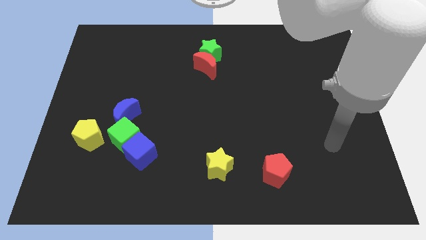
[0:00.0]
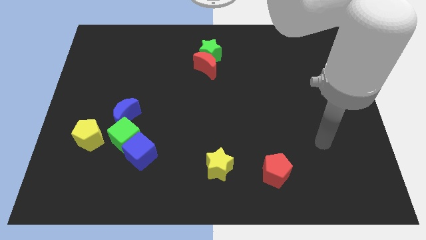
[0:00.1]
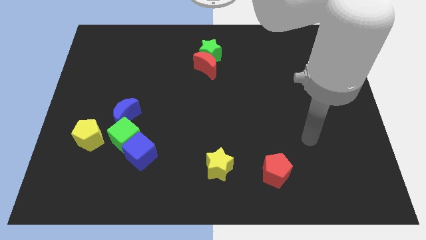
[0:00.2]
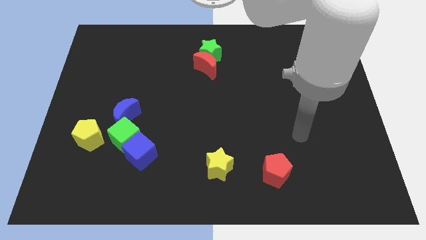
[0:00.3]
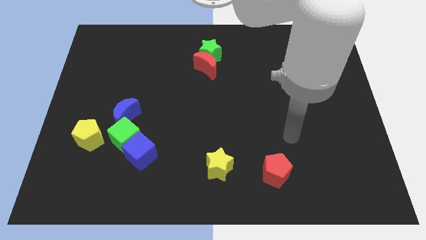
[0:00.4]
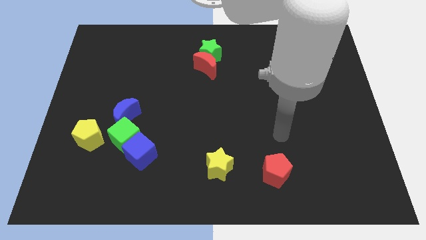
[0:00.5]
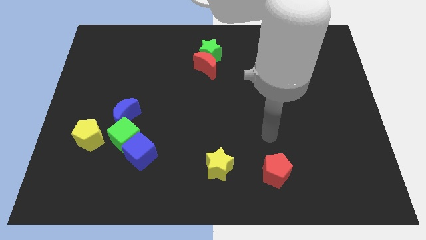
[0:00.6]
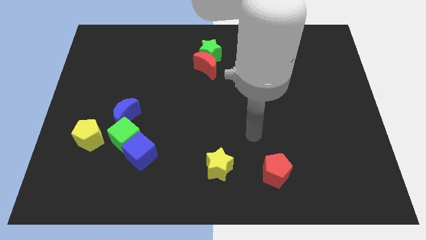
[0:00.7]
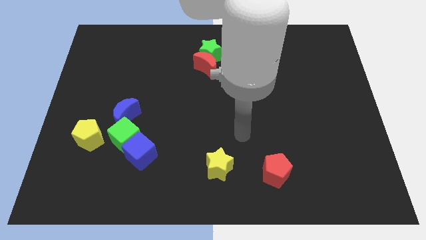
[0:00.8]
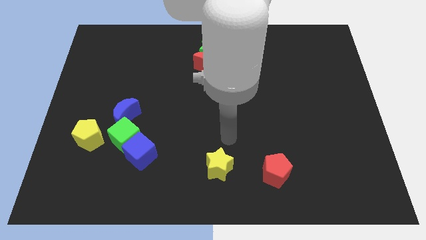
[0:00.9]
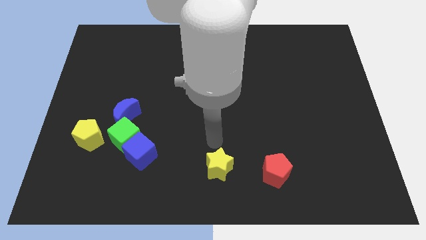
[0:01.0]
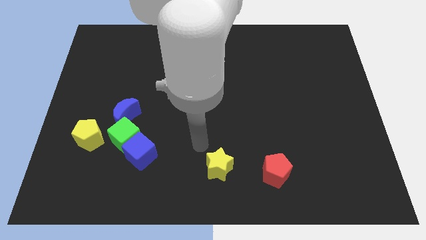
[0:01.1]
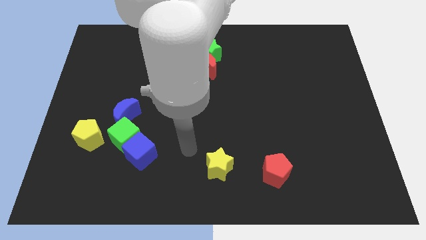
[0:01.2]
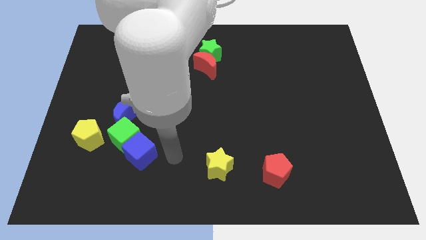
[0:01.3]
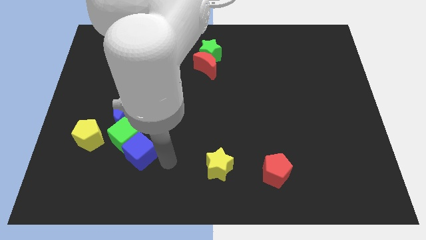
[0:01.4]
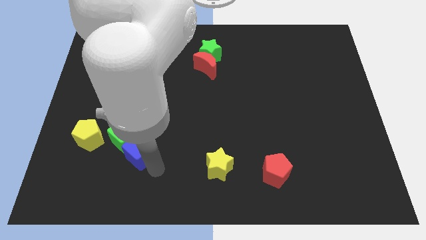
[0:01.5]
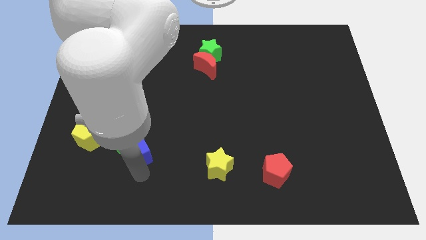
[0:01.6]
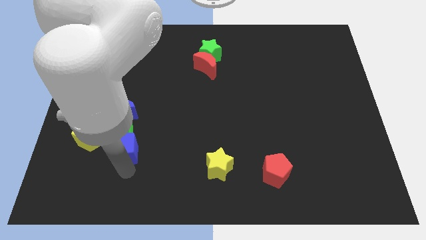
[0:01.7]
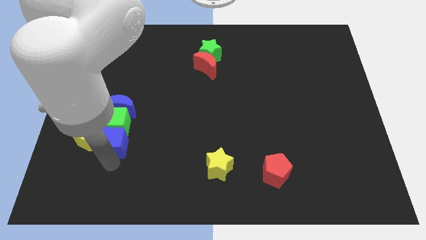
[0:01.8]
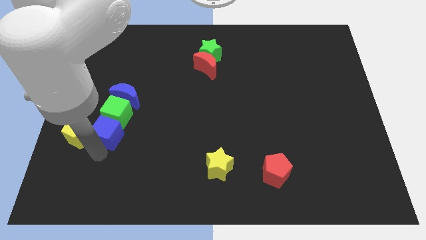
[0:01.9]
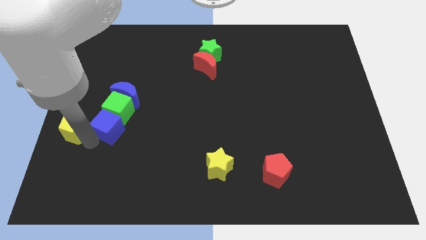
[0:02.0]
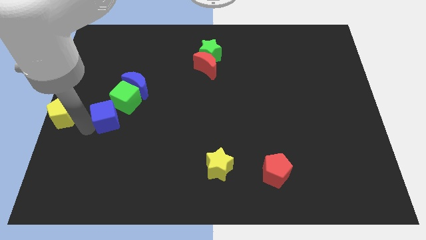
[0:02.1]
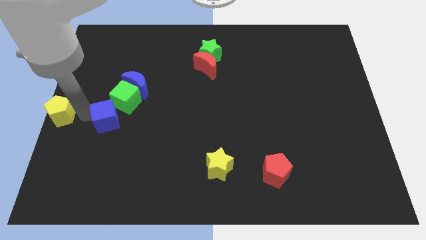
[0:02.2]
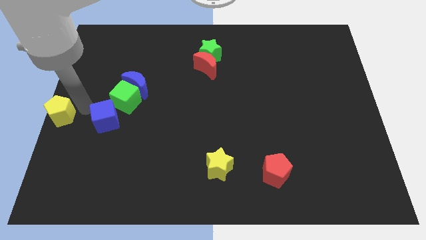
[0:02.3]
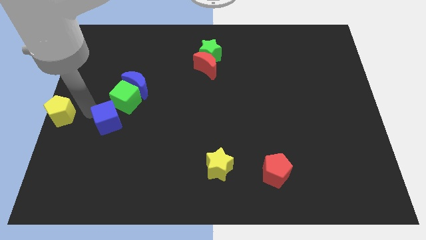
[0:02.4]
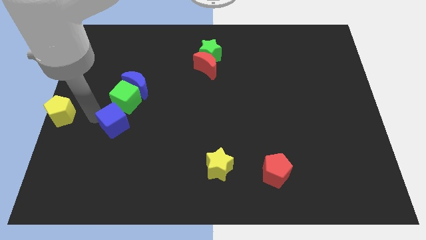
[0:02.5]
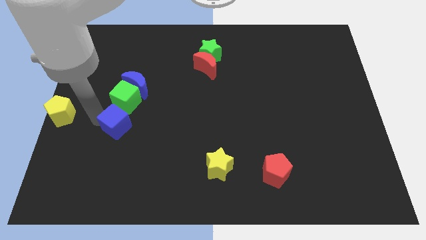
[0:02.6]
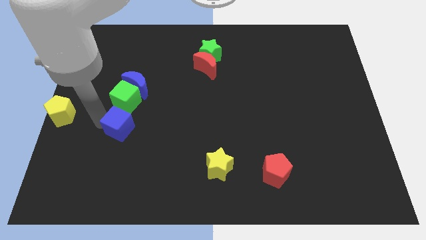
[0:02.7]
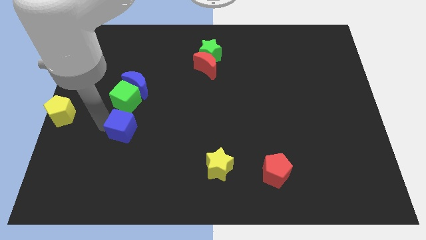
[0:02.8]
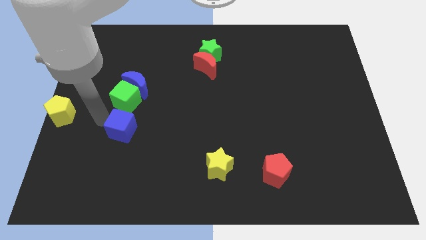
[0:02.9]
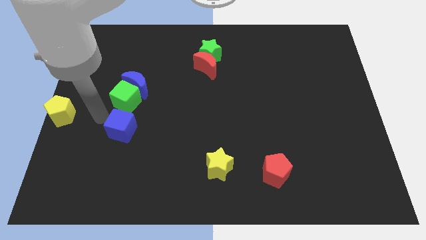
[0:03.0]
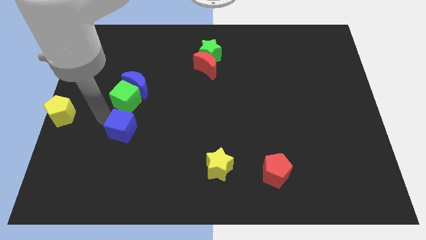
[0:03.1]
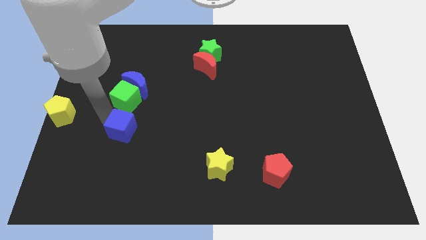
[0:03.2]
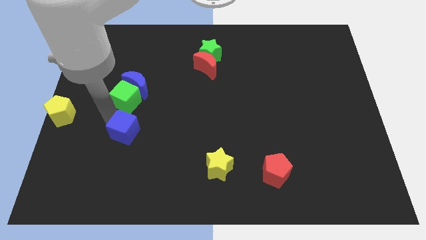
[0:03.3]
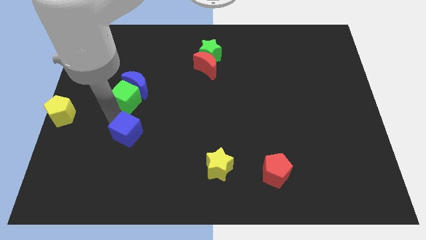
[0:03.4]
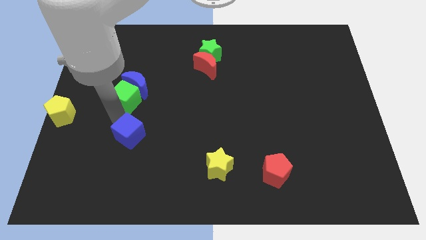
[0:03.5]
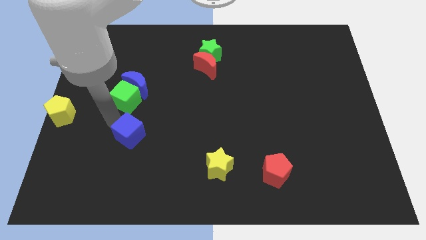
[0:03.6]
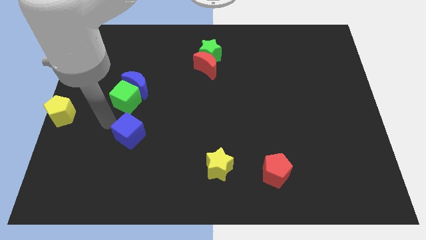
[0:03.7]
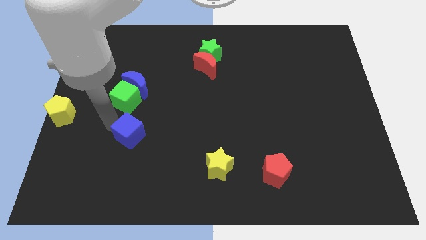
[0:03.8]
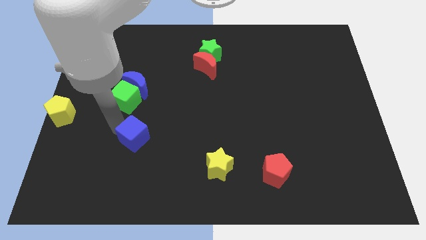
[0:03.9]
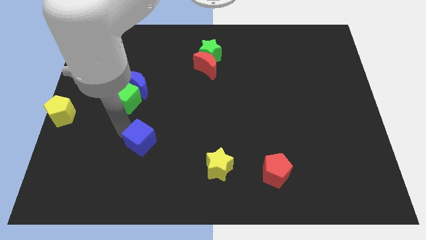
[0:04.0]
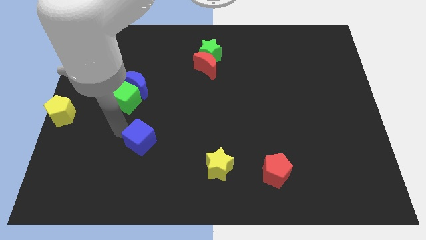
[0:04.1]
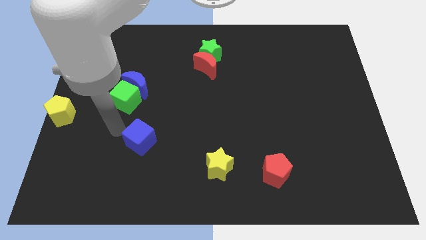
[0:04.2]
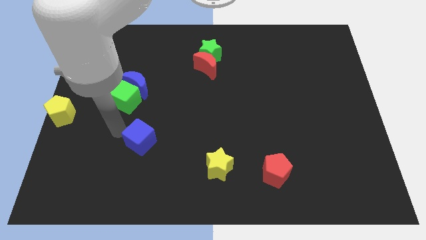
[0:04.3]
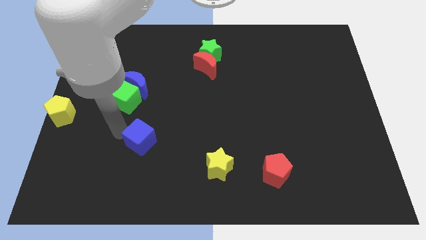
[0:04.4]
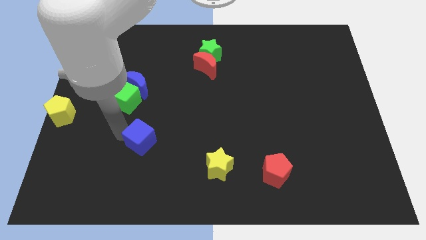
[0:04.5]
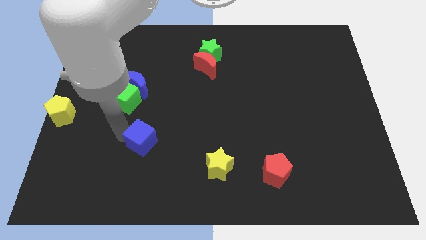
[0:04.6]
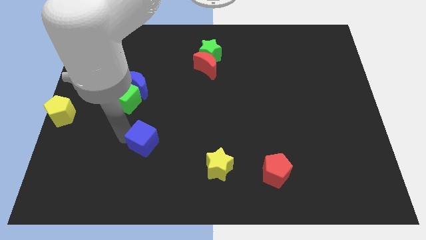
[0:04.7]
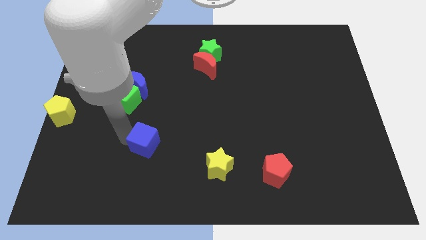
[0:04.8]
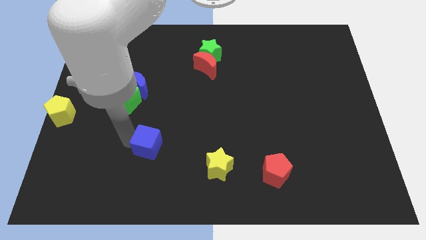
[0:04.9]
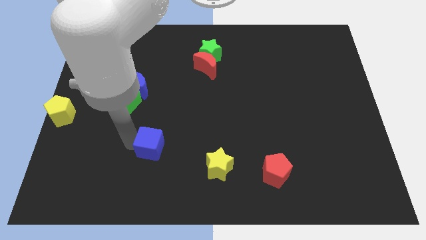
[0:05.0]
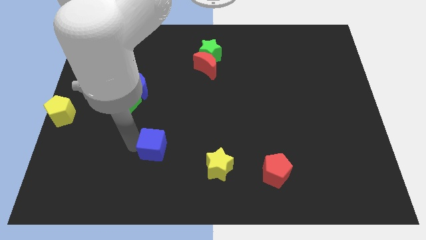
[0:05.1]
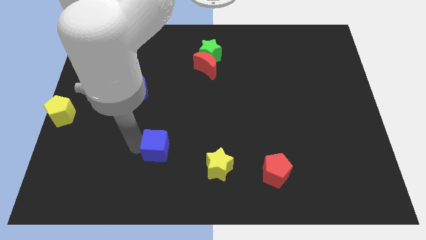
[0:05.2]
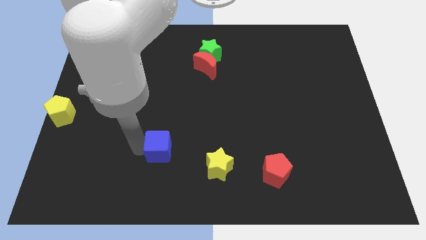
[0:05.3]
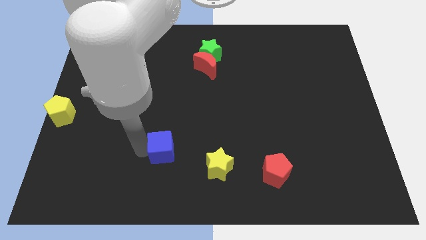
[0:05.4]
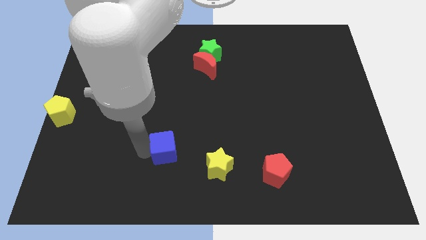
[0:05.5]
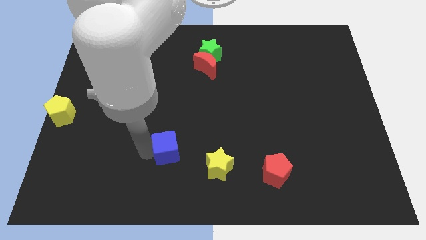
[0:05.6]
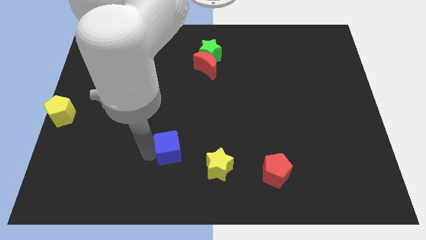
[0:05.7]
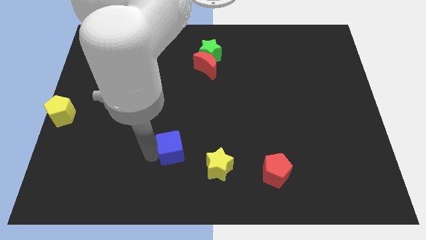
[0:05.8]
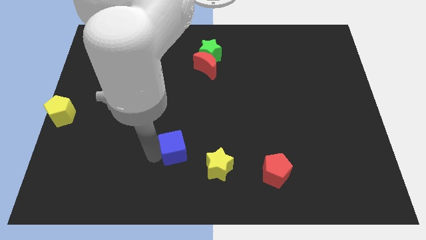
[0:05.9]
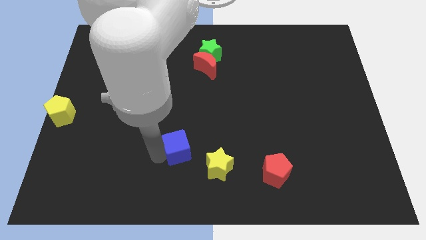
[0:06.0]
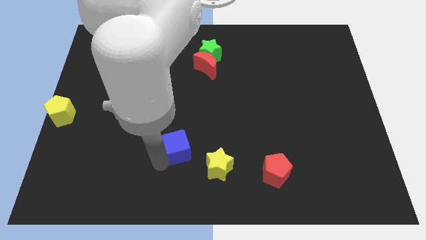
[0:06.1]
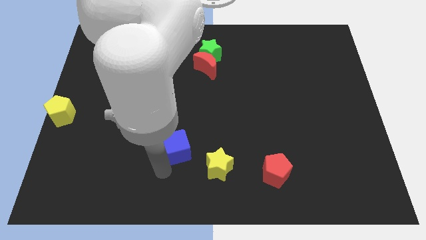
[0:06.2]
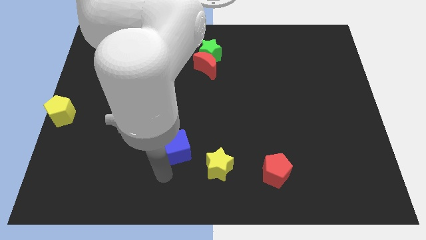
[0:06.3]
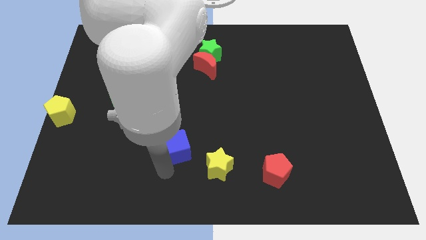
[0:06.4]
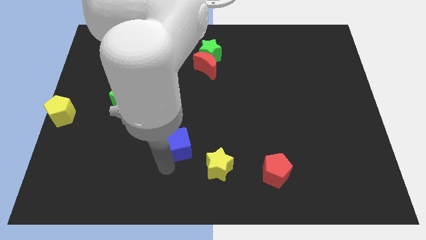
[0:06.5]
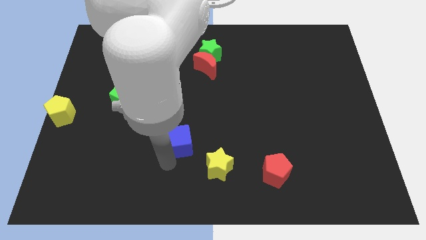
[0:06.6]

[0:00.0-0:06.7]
push the blue cube a bit upwards and right

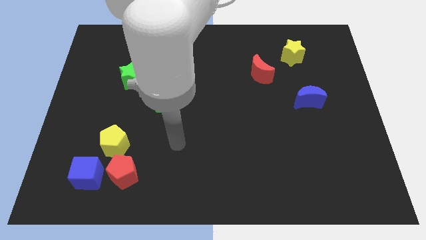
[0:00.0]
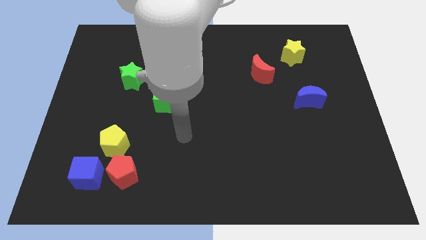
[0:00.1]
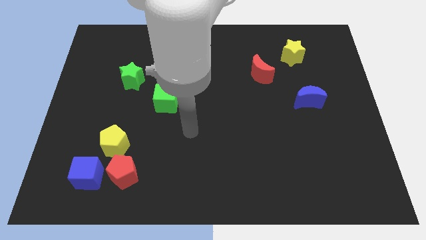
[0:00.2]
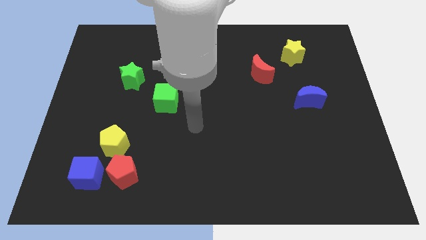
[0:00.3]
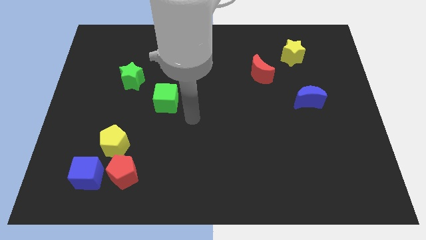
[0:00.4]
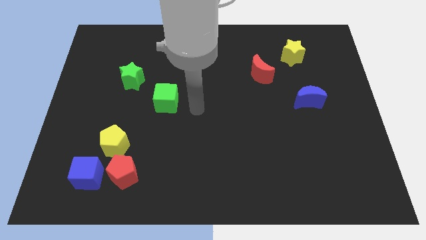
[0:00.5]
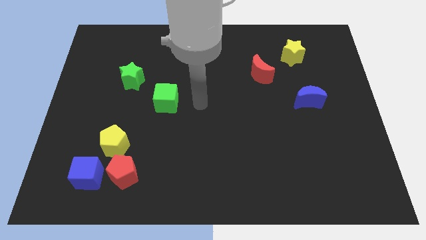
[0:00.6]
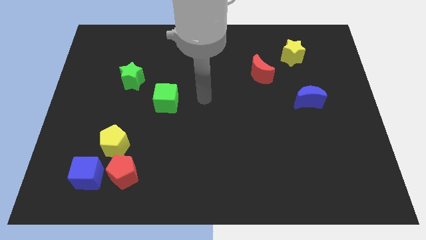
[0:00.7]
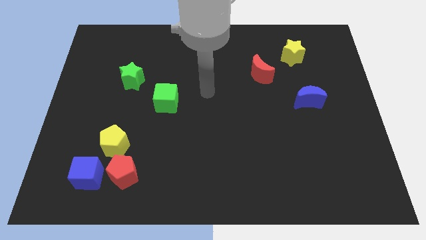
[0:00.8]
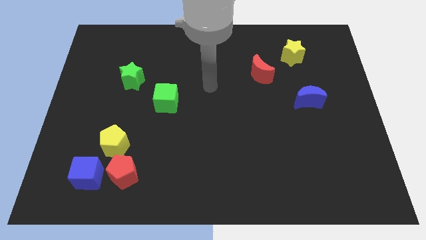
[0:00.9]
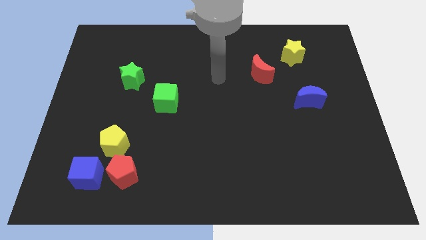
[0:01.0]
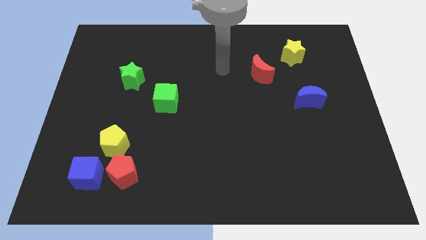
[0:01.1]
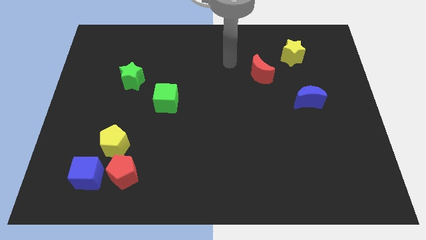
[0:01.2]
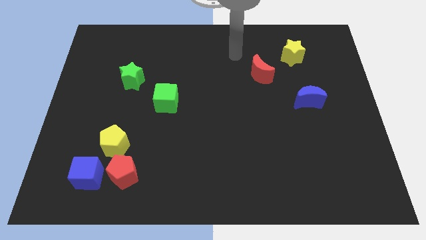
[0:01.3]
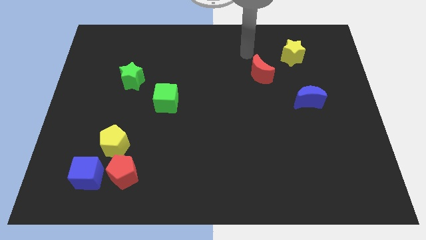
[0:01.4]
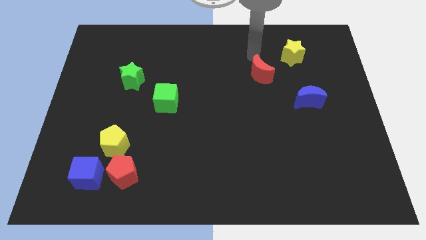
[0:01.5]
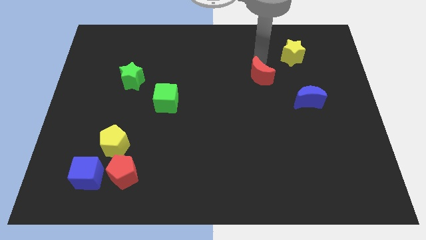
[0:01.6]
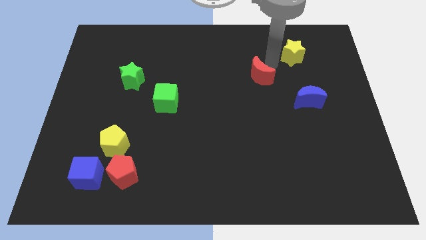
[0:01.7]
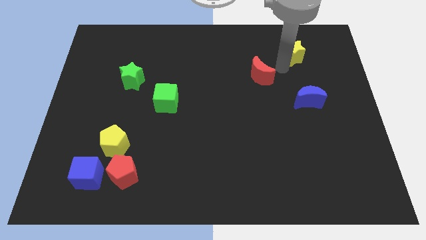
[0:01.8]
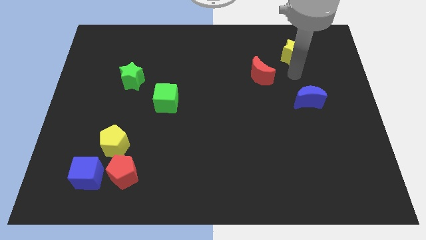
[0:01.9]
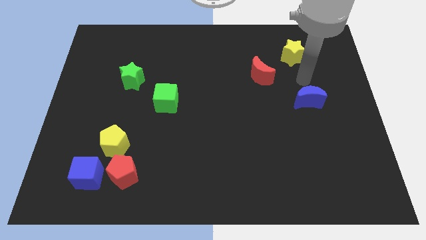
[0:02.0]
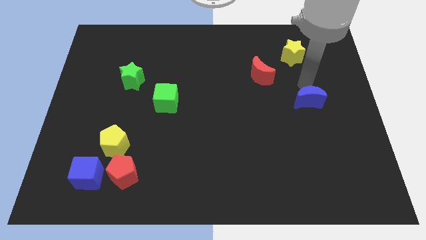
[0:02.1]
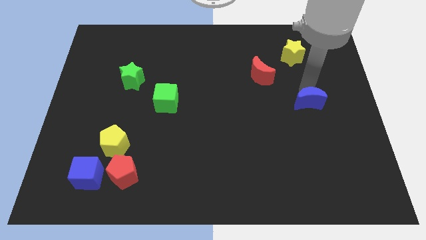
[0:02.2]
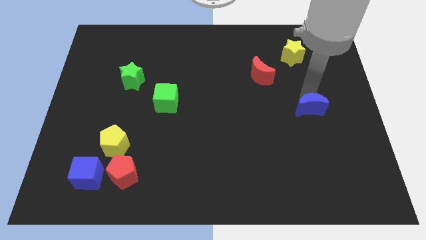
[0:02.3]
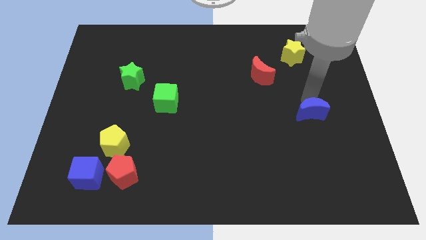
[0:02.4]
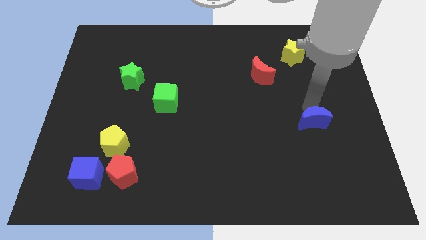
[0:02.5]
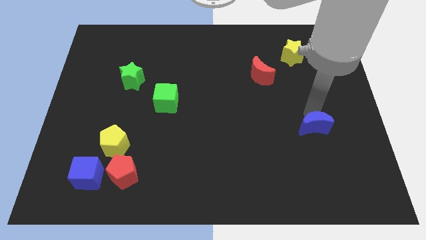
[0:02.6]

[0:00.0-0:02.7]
push the blue moon downwards a little bit
